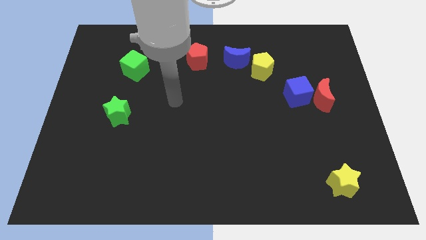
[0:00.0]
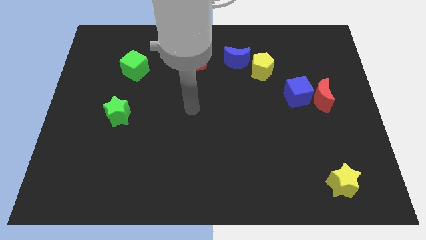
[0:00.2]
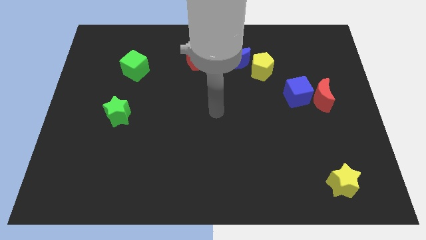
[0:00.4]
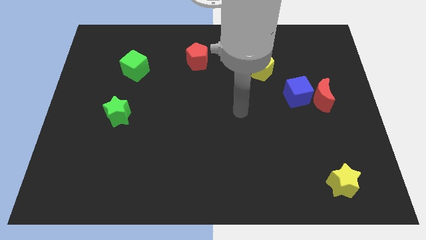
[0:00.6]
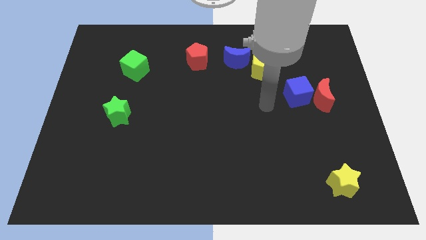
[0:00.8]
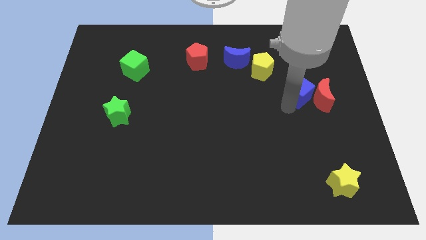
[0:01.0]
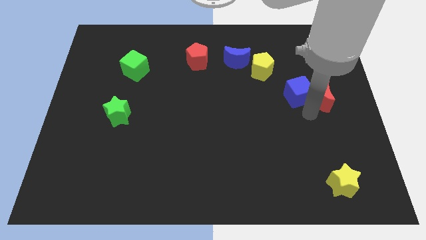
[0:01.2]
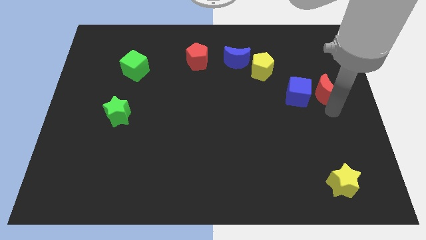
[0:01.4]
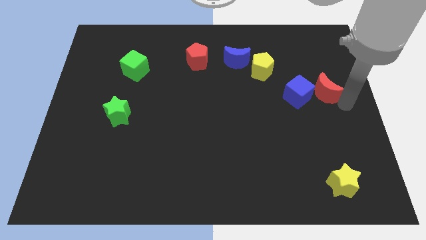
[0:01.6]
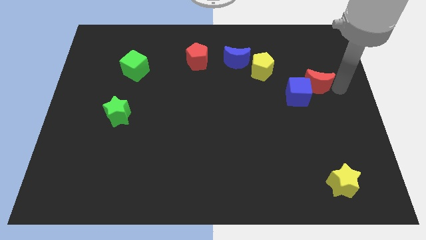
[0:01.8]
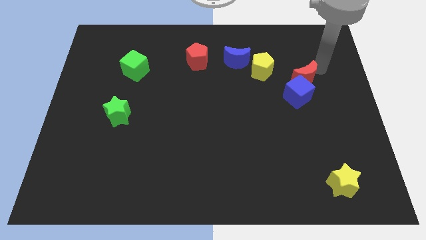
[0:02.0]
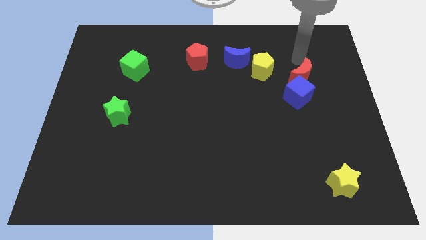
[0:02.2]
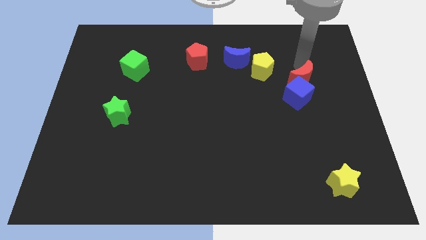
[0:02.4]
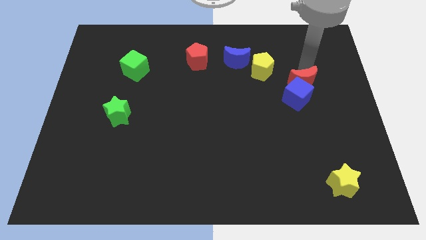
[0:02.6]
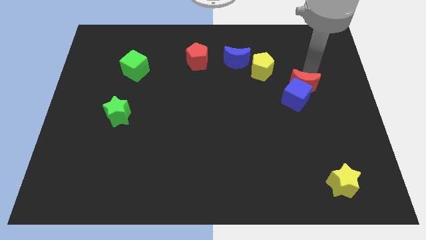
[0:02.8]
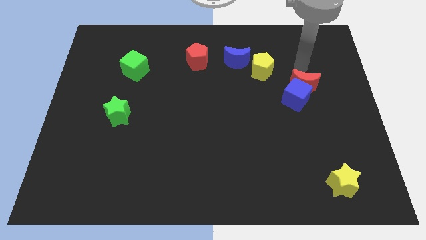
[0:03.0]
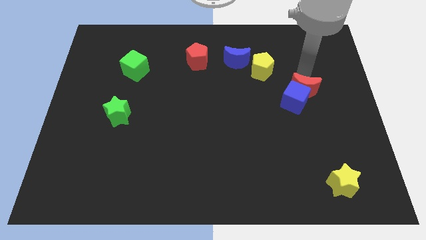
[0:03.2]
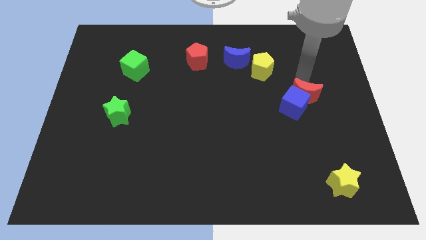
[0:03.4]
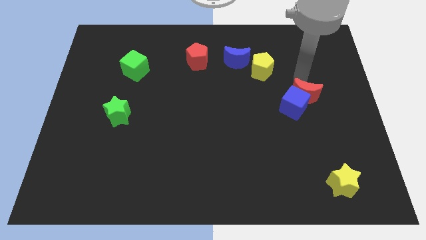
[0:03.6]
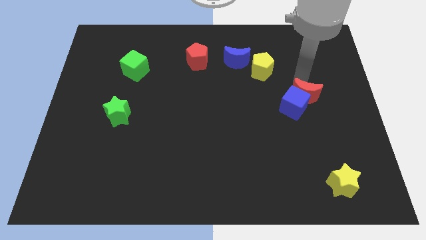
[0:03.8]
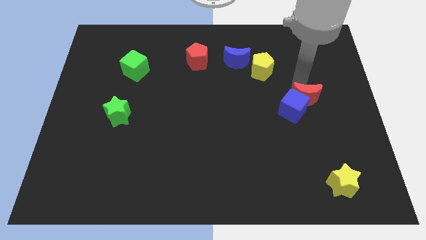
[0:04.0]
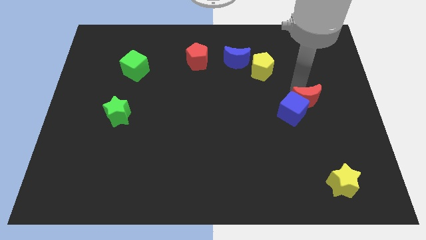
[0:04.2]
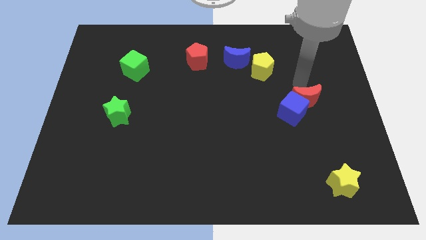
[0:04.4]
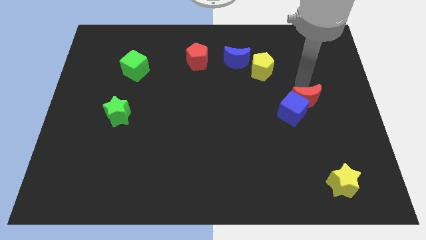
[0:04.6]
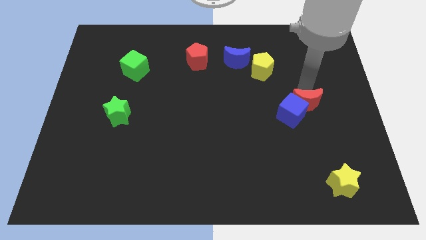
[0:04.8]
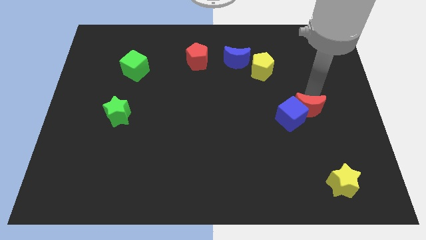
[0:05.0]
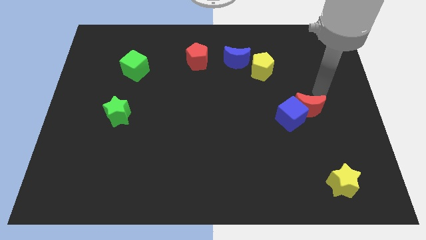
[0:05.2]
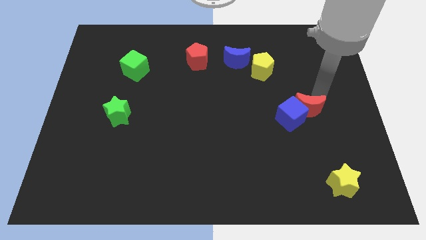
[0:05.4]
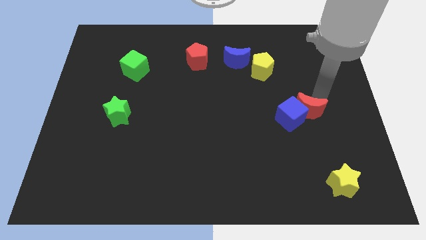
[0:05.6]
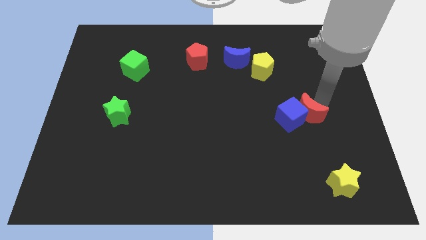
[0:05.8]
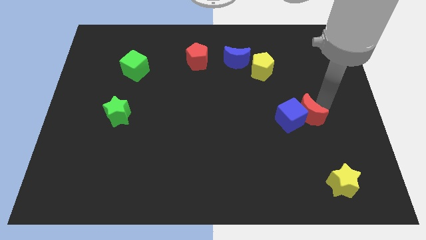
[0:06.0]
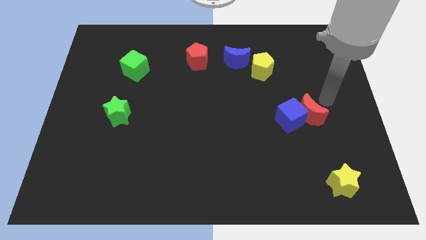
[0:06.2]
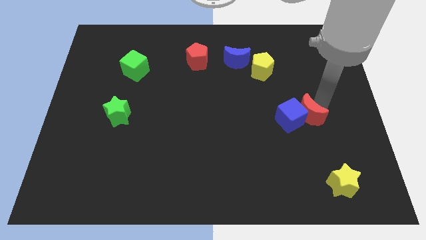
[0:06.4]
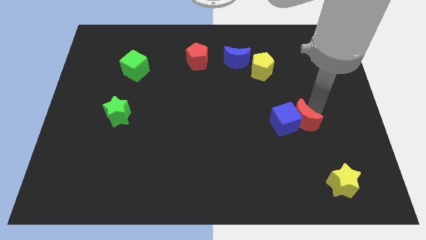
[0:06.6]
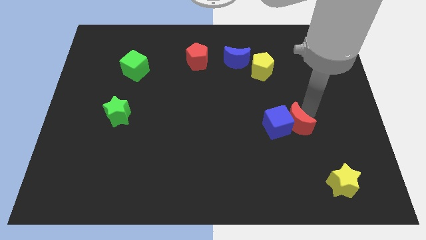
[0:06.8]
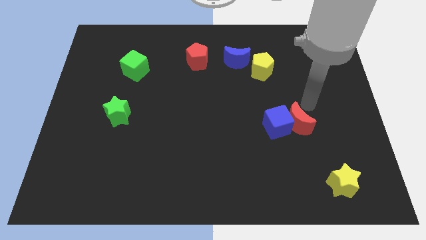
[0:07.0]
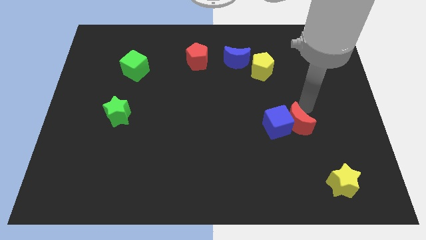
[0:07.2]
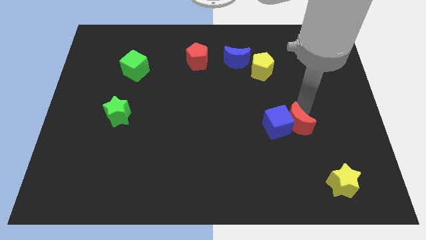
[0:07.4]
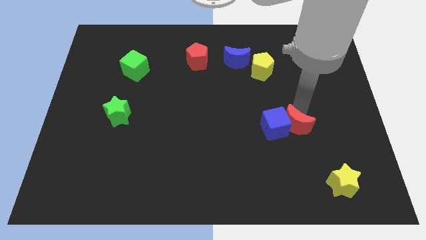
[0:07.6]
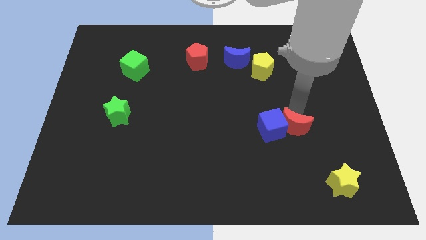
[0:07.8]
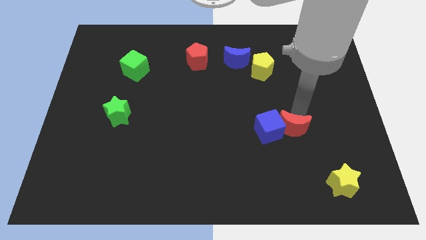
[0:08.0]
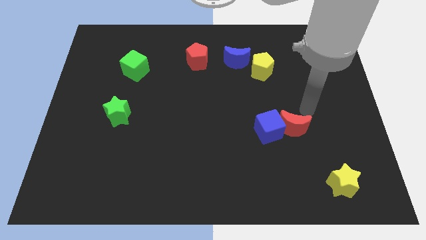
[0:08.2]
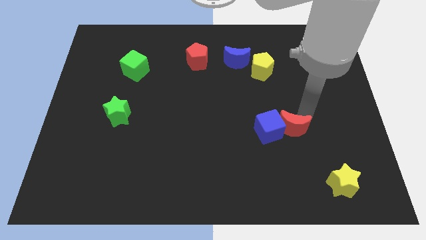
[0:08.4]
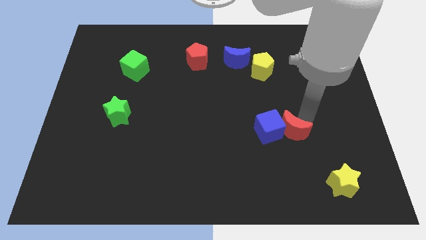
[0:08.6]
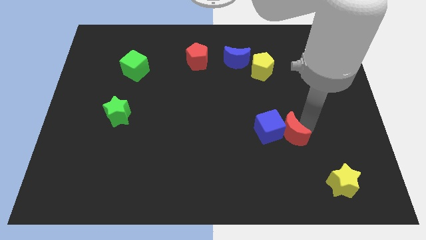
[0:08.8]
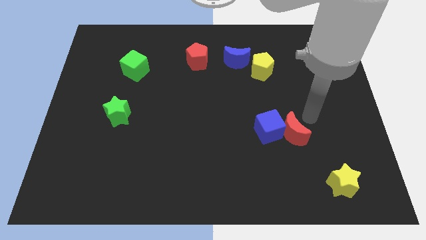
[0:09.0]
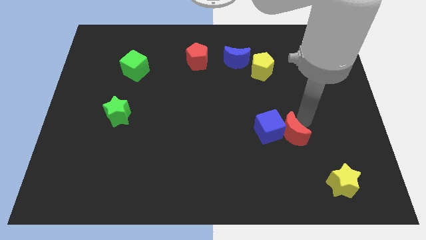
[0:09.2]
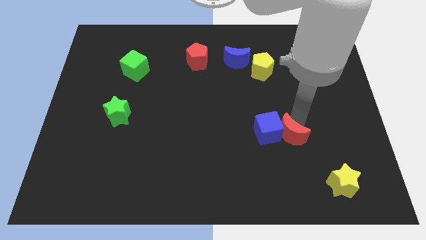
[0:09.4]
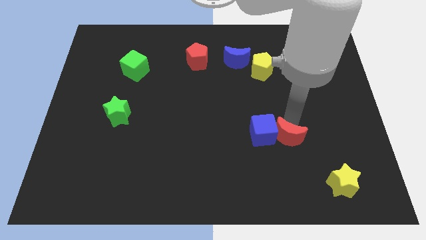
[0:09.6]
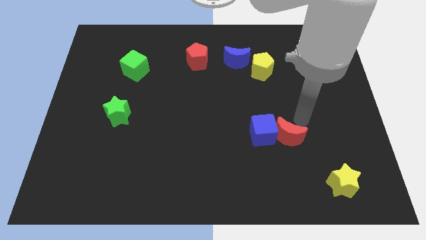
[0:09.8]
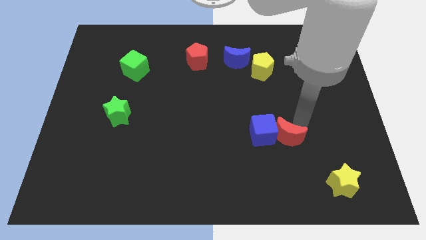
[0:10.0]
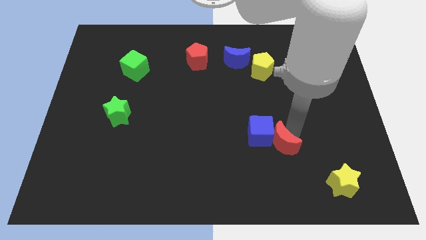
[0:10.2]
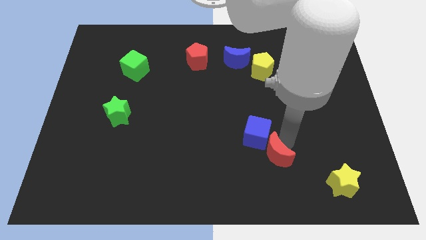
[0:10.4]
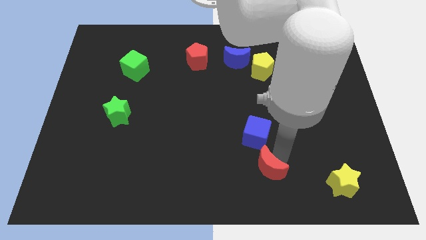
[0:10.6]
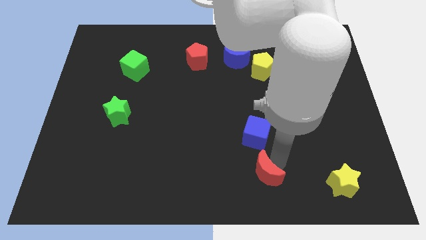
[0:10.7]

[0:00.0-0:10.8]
put the red moon to the bottom
